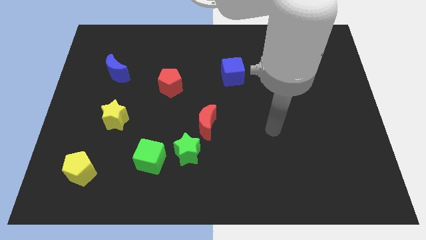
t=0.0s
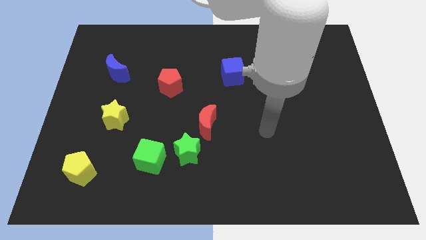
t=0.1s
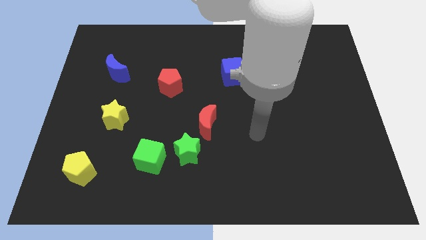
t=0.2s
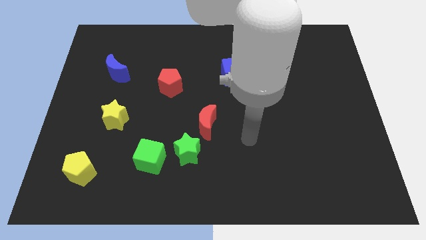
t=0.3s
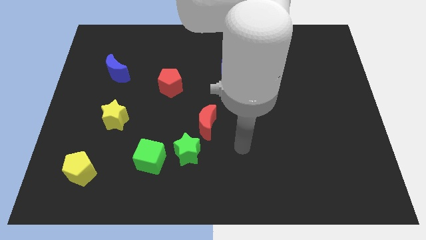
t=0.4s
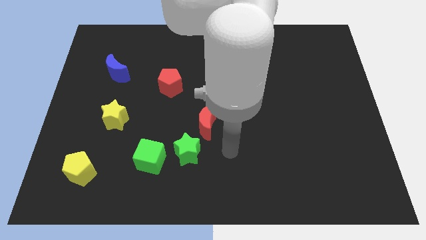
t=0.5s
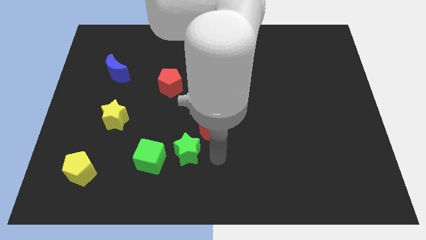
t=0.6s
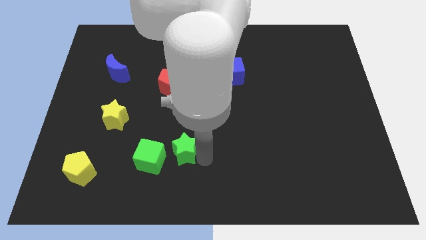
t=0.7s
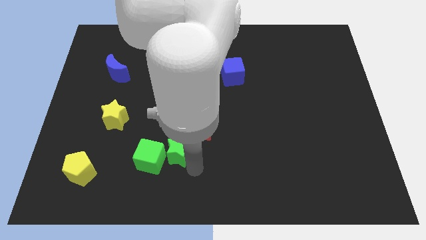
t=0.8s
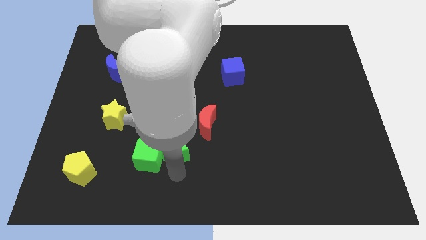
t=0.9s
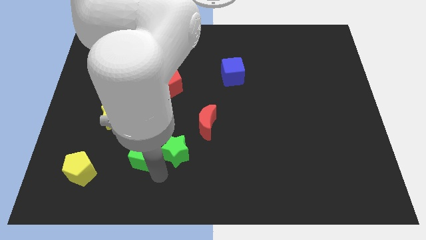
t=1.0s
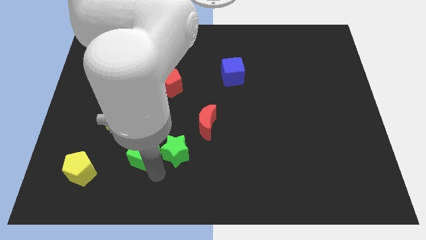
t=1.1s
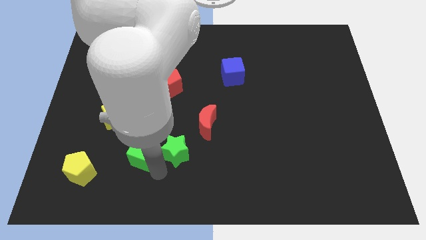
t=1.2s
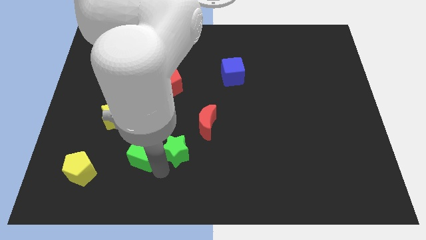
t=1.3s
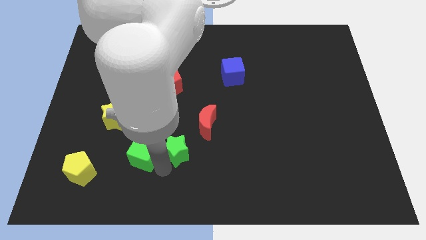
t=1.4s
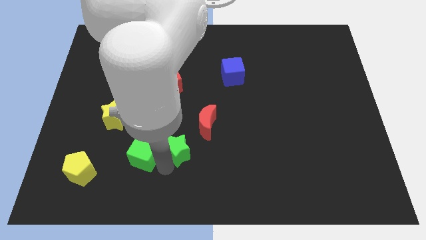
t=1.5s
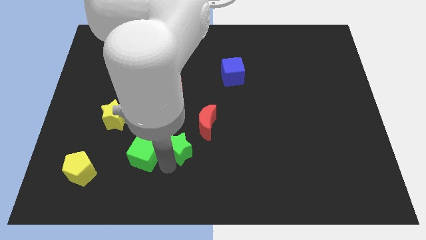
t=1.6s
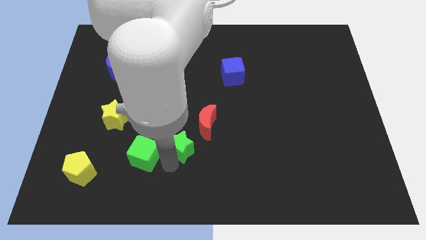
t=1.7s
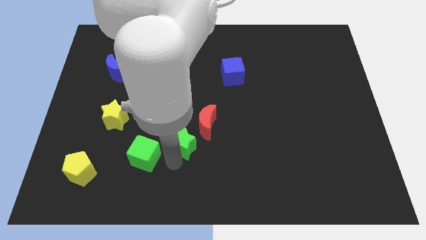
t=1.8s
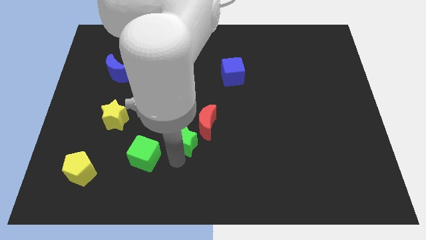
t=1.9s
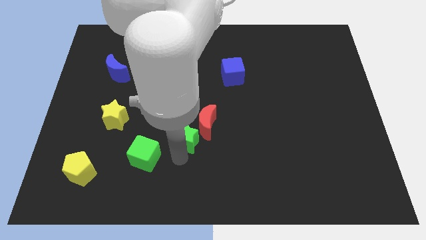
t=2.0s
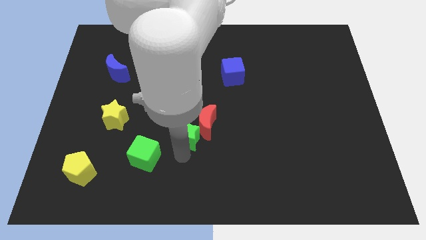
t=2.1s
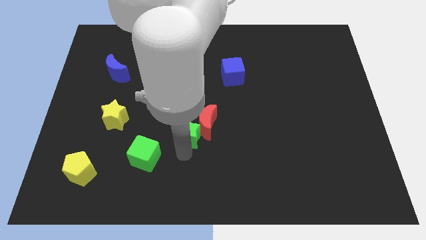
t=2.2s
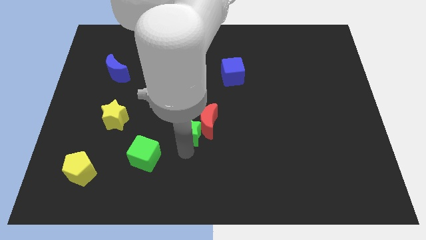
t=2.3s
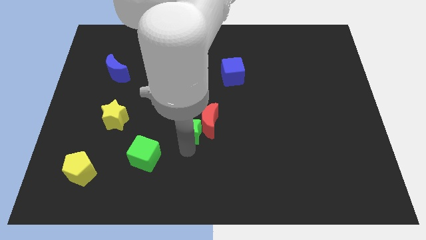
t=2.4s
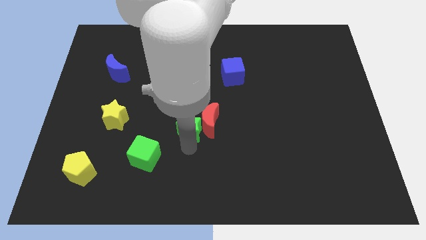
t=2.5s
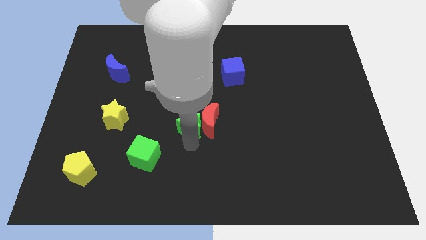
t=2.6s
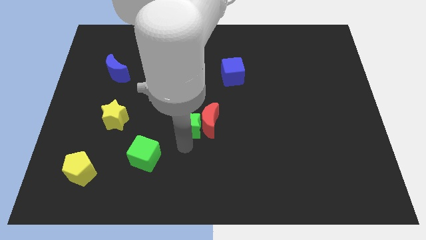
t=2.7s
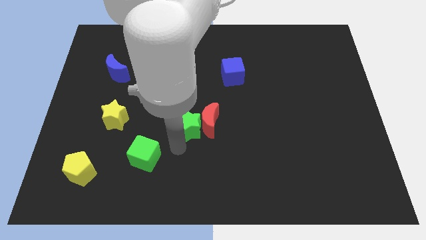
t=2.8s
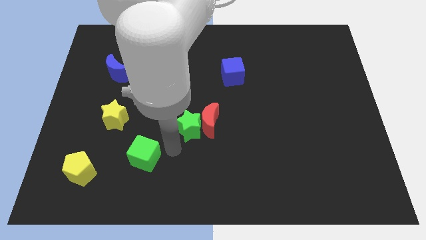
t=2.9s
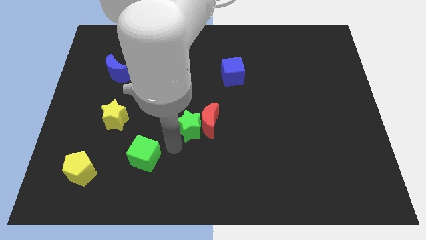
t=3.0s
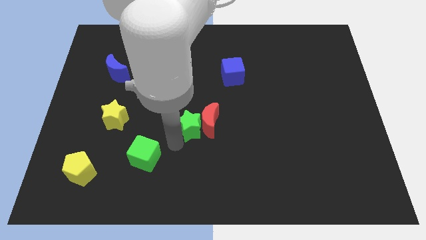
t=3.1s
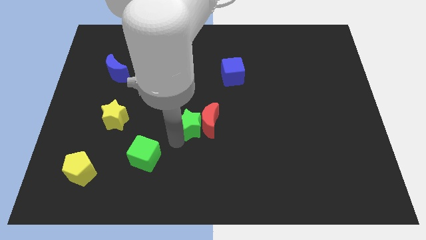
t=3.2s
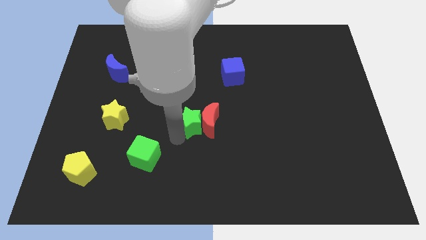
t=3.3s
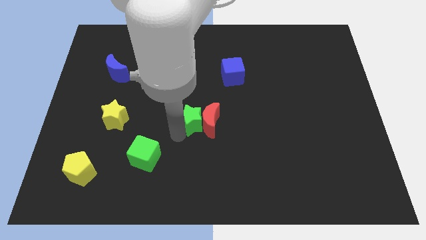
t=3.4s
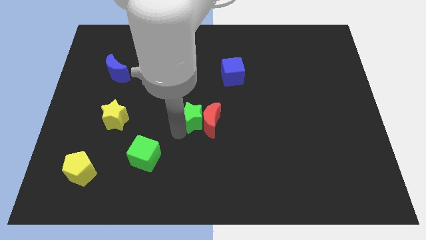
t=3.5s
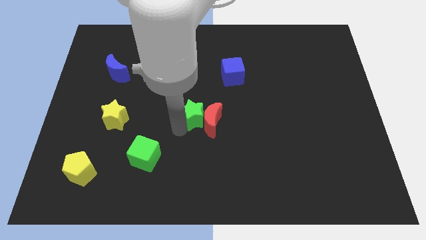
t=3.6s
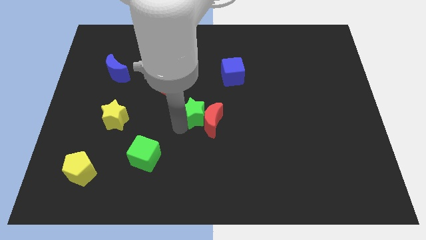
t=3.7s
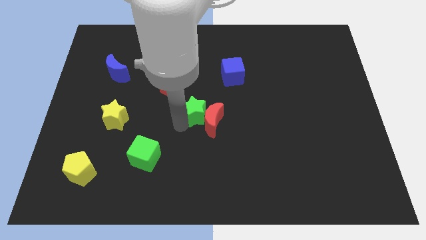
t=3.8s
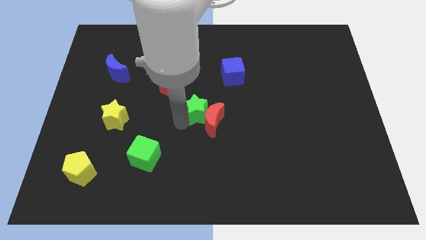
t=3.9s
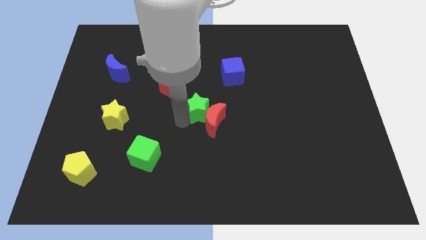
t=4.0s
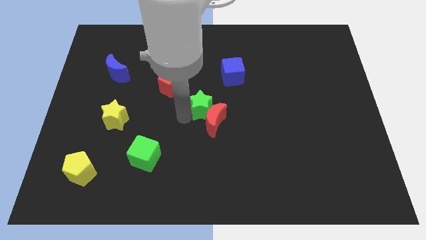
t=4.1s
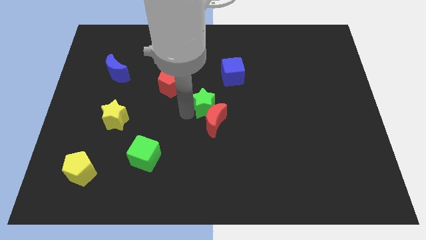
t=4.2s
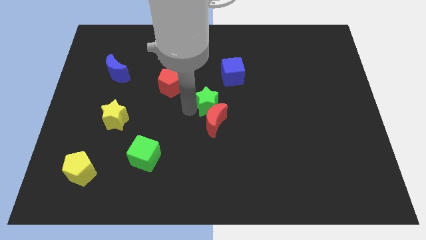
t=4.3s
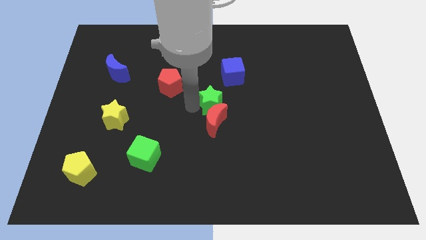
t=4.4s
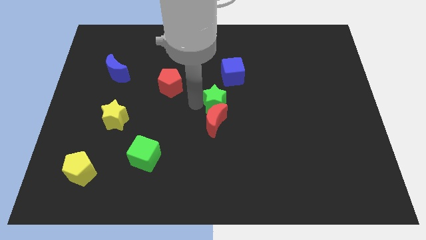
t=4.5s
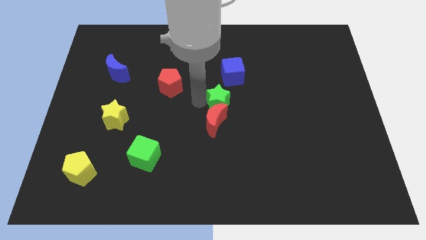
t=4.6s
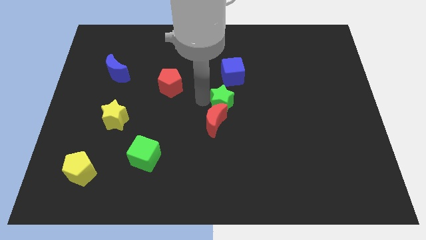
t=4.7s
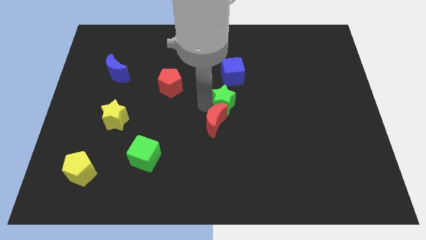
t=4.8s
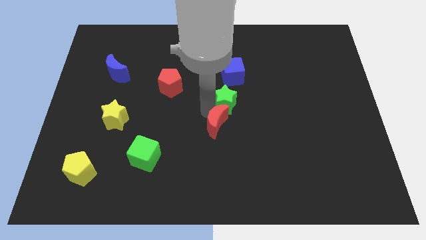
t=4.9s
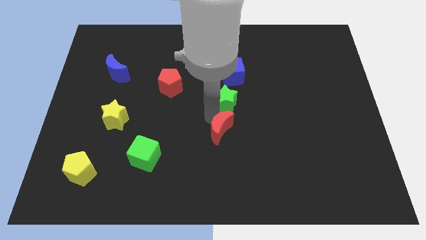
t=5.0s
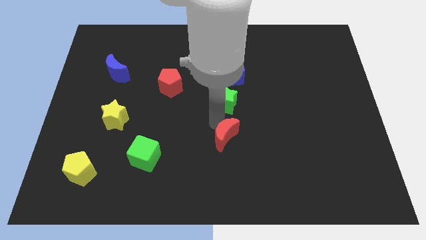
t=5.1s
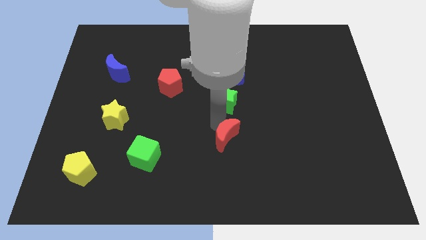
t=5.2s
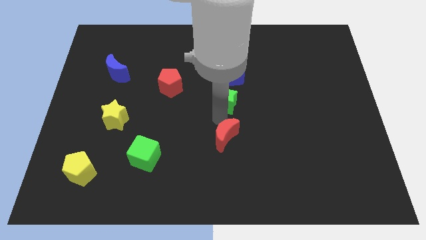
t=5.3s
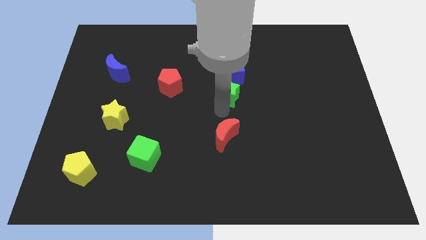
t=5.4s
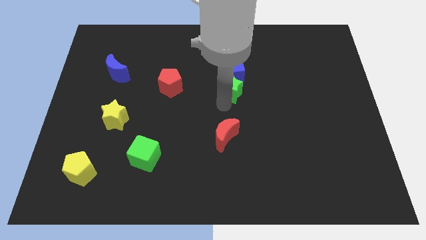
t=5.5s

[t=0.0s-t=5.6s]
push the green star next to the blue cube

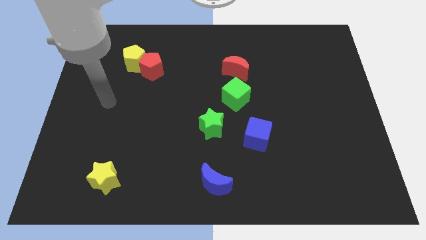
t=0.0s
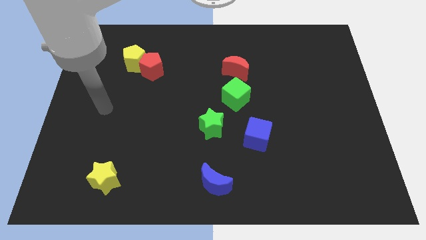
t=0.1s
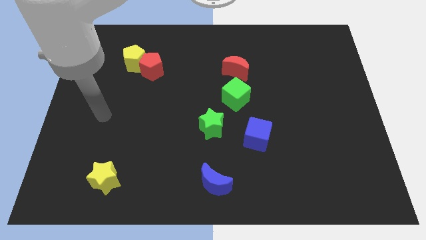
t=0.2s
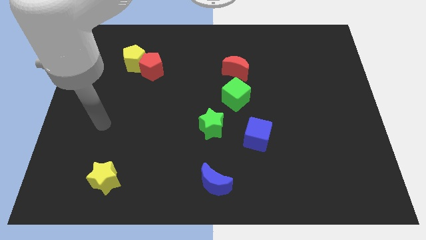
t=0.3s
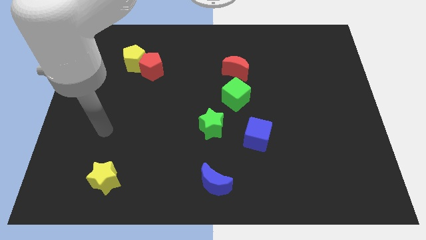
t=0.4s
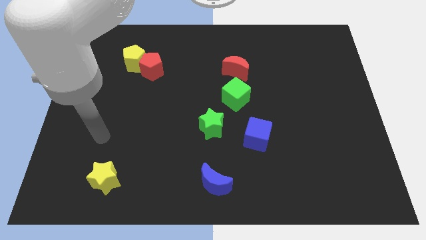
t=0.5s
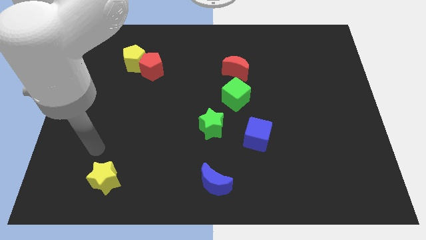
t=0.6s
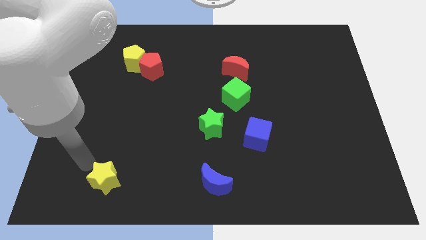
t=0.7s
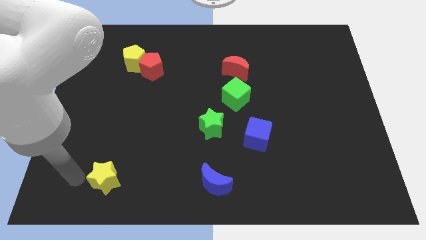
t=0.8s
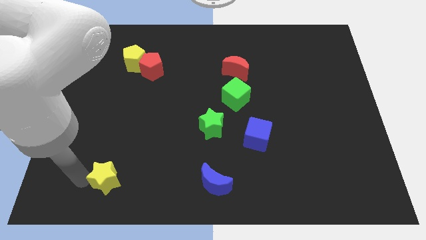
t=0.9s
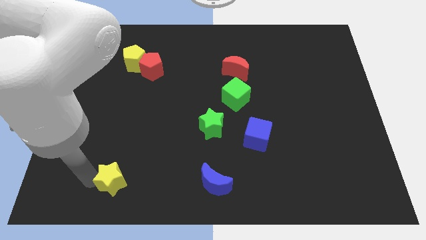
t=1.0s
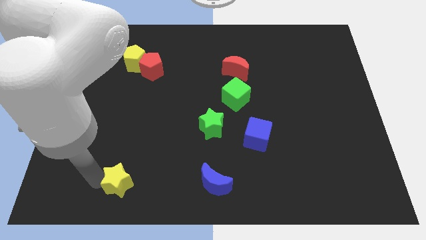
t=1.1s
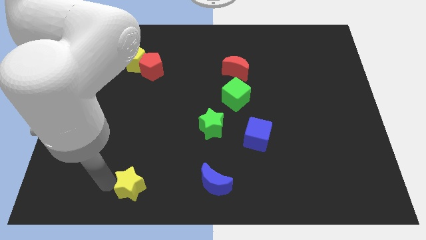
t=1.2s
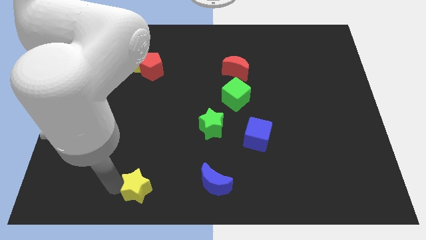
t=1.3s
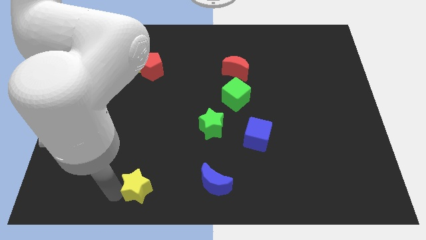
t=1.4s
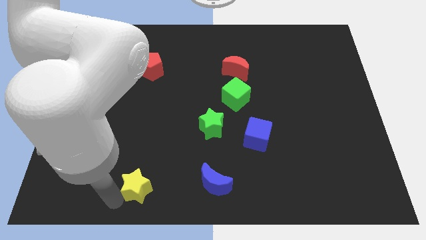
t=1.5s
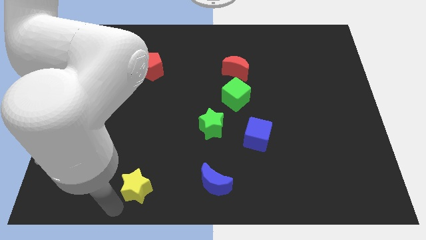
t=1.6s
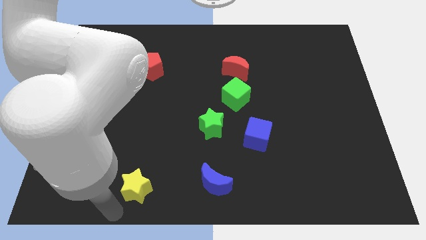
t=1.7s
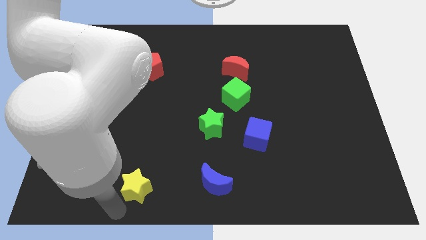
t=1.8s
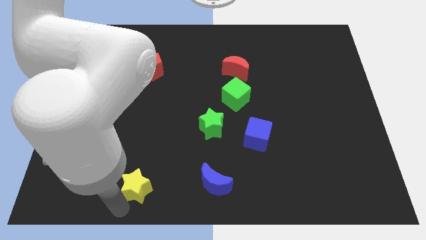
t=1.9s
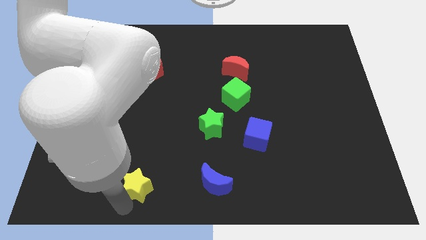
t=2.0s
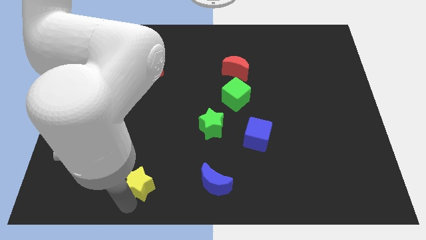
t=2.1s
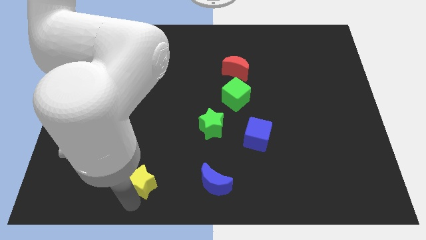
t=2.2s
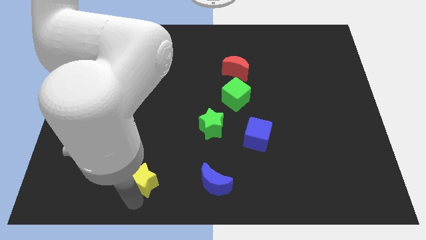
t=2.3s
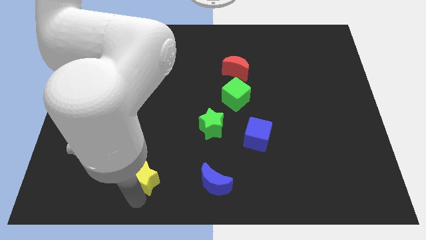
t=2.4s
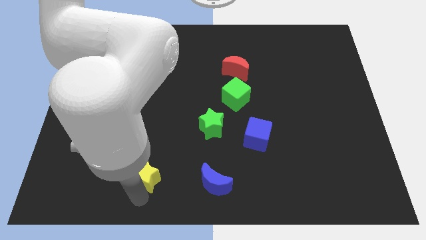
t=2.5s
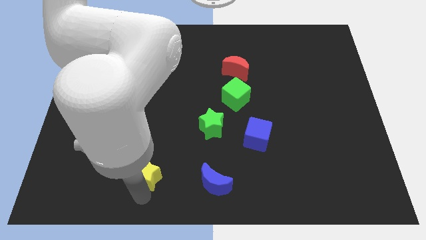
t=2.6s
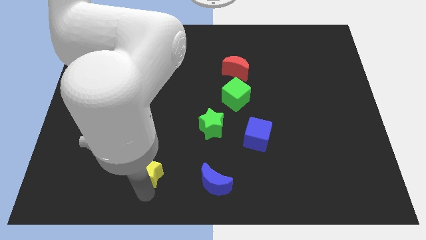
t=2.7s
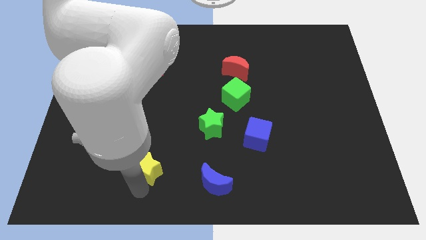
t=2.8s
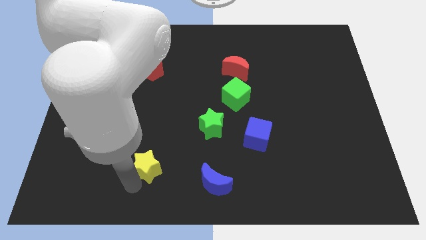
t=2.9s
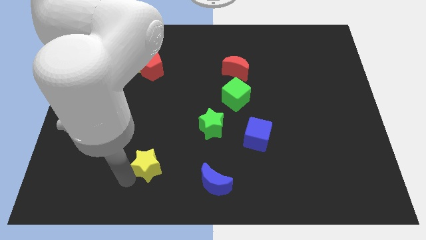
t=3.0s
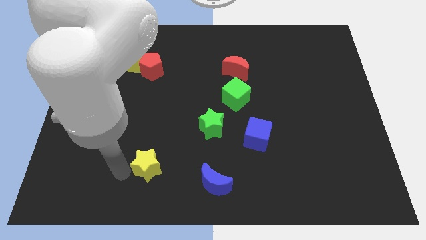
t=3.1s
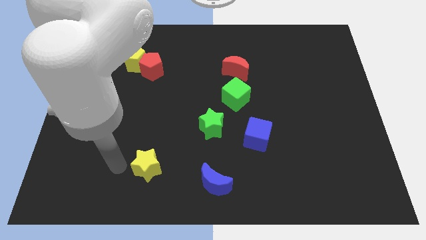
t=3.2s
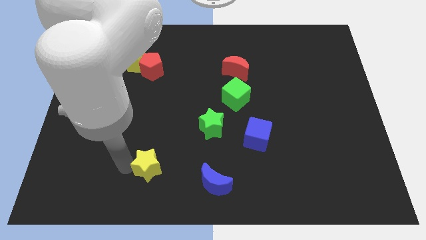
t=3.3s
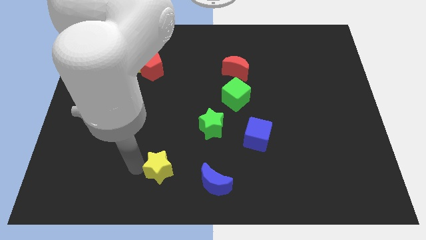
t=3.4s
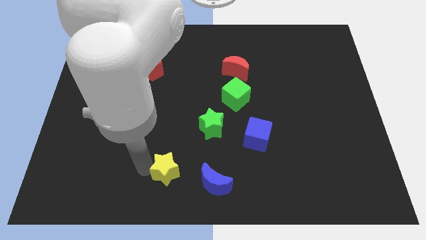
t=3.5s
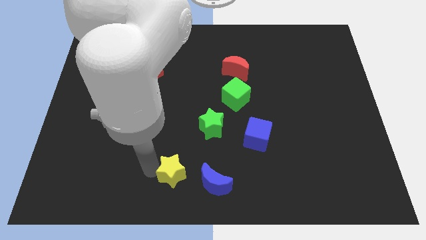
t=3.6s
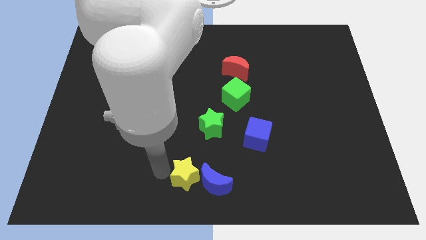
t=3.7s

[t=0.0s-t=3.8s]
put the yellow star towards the blue moon
